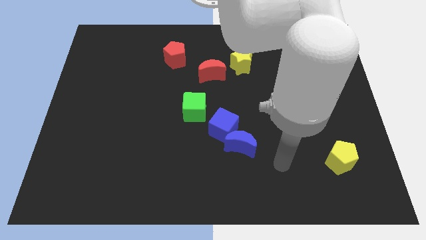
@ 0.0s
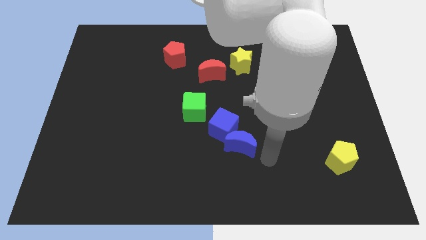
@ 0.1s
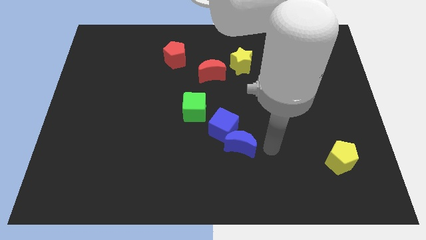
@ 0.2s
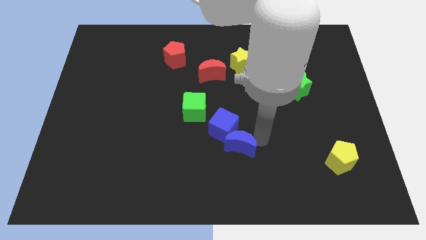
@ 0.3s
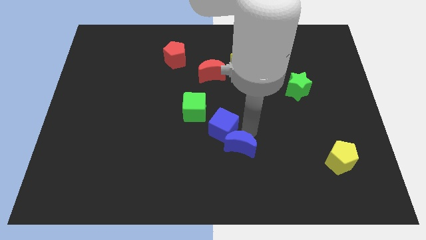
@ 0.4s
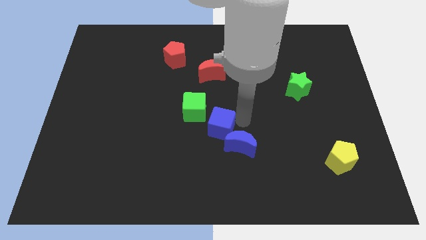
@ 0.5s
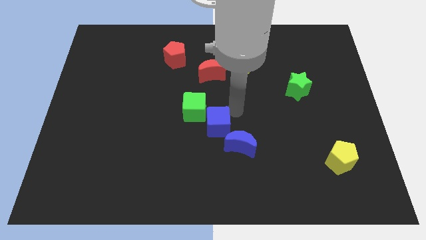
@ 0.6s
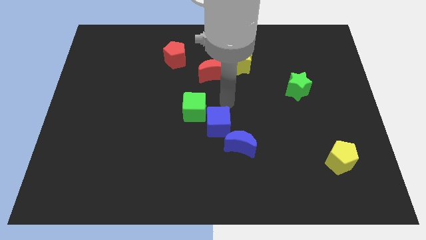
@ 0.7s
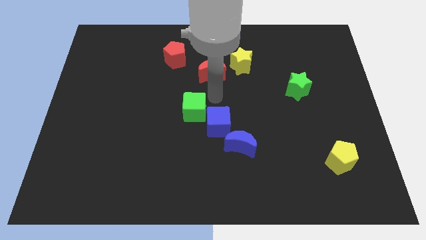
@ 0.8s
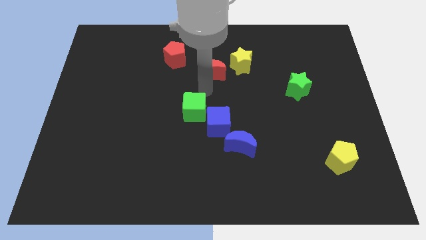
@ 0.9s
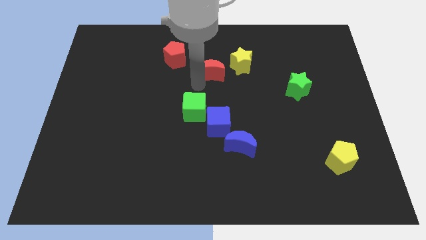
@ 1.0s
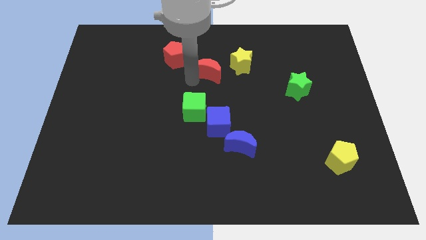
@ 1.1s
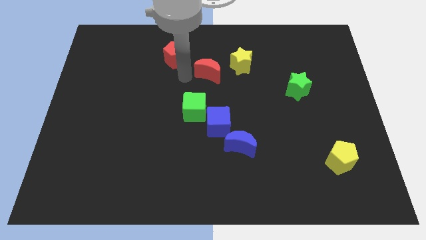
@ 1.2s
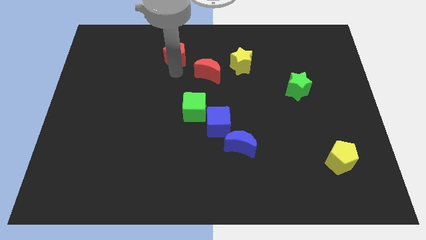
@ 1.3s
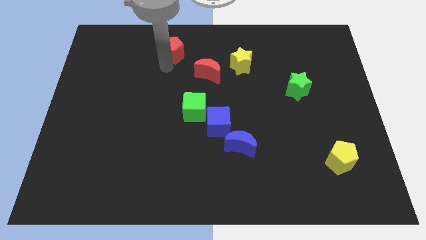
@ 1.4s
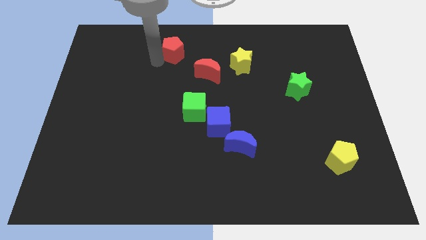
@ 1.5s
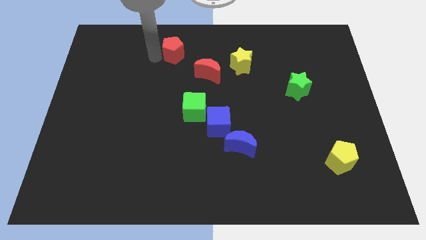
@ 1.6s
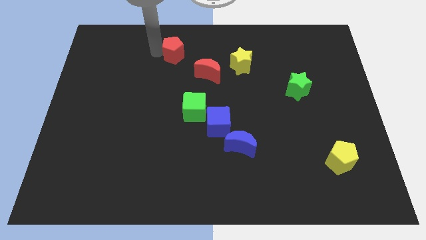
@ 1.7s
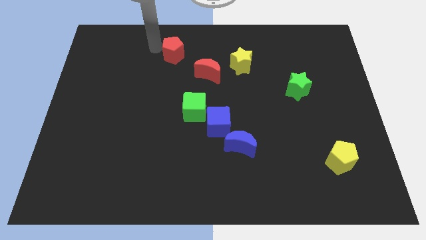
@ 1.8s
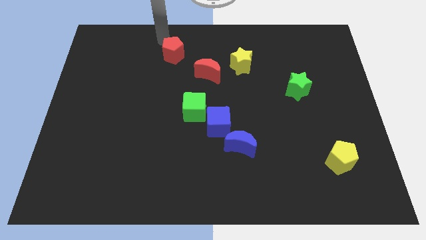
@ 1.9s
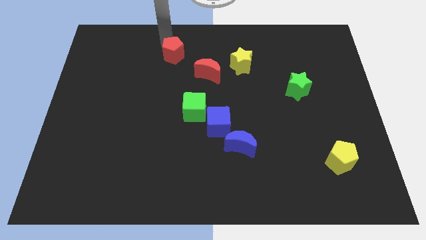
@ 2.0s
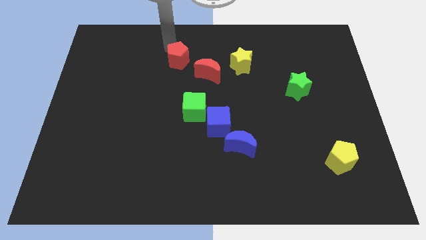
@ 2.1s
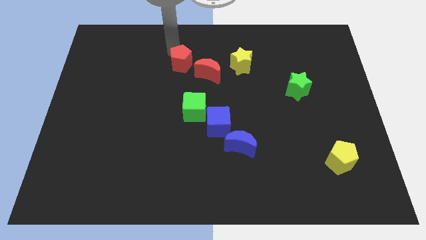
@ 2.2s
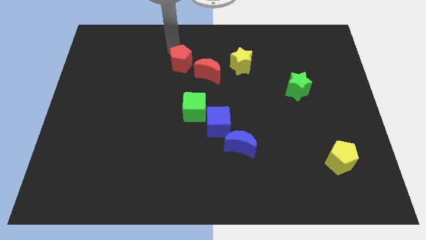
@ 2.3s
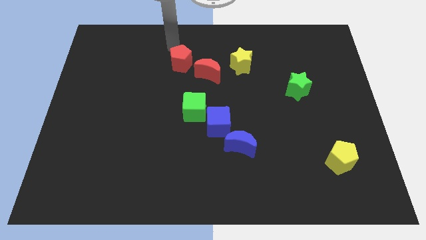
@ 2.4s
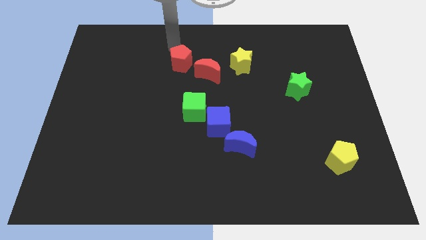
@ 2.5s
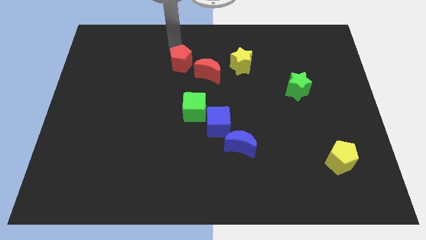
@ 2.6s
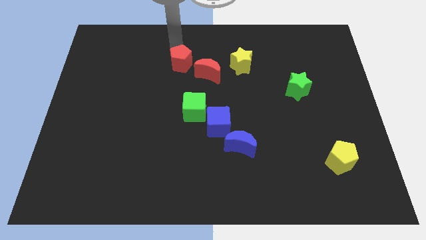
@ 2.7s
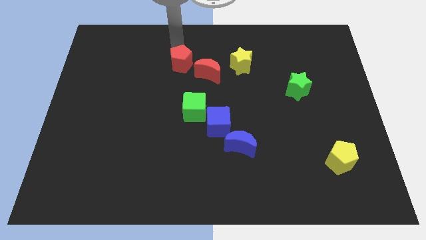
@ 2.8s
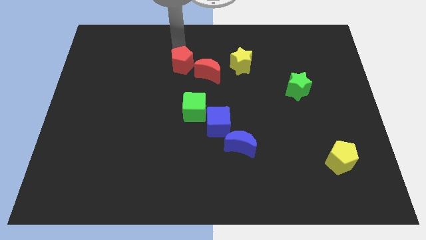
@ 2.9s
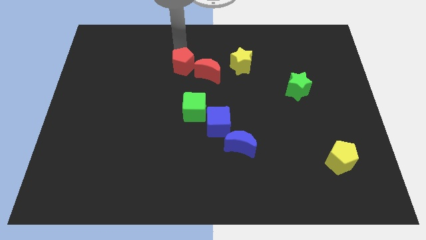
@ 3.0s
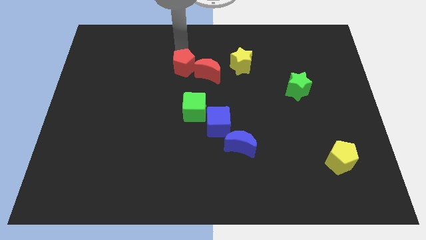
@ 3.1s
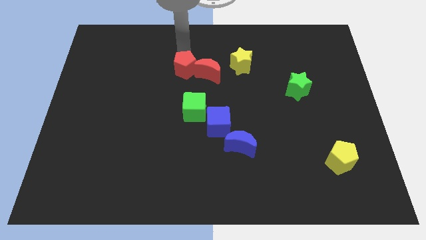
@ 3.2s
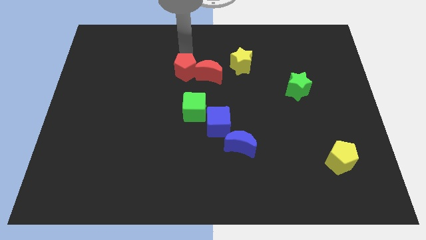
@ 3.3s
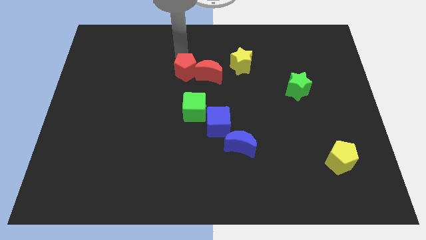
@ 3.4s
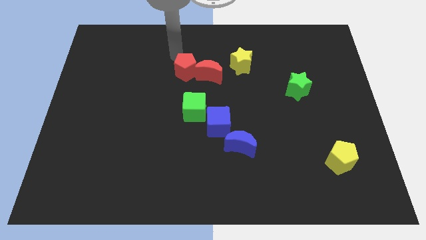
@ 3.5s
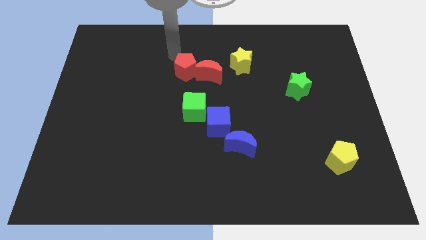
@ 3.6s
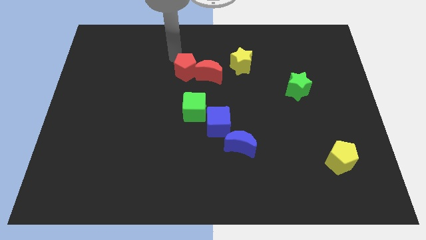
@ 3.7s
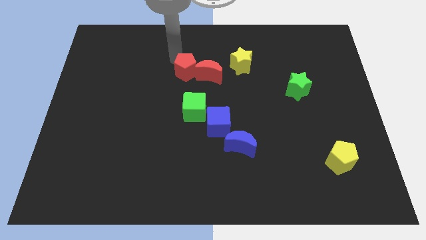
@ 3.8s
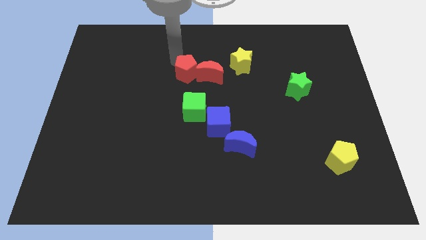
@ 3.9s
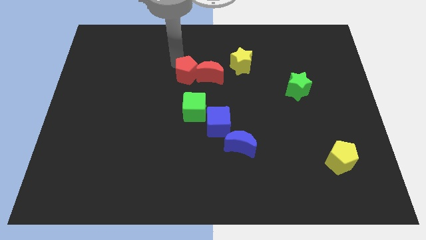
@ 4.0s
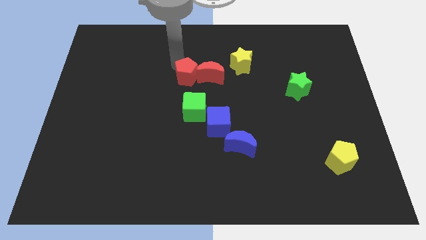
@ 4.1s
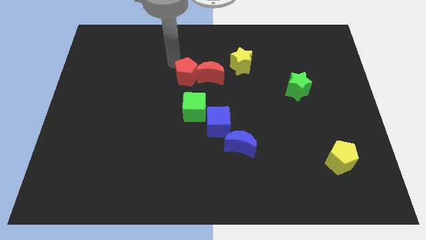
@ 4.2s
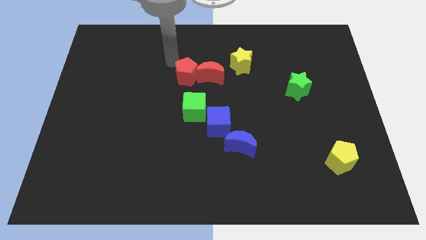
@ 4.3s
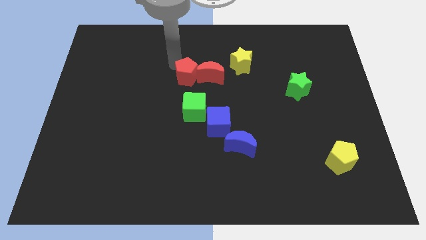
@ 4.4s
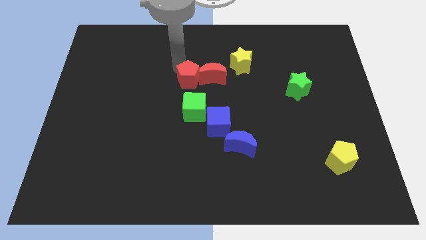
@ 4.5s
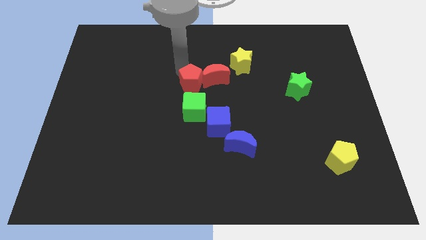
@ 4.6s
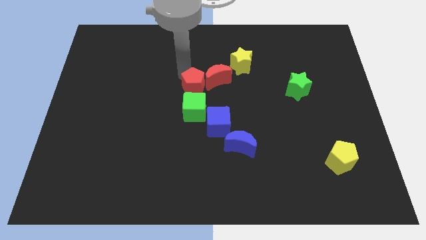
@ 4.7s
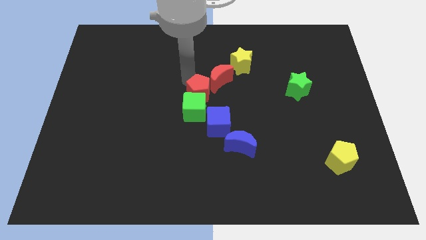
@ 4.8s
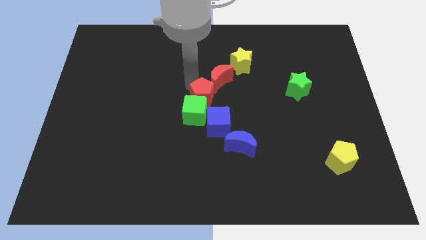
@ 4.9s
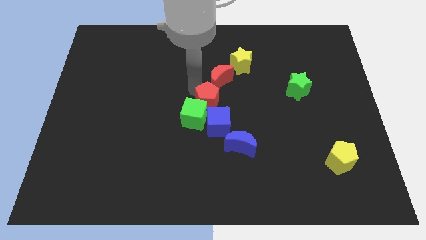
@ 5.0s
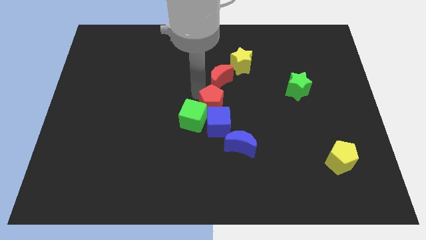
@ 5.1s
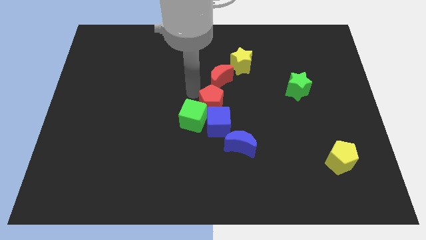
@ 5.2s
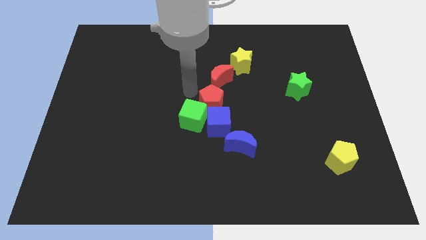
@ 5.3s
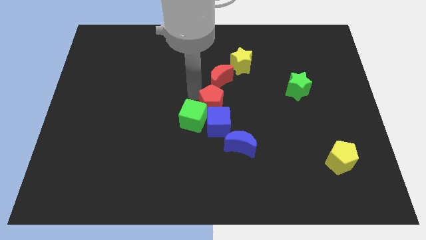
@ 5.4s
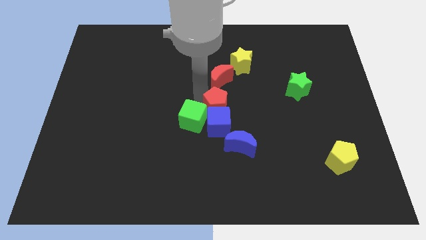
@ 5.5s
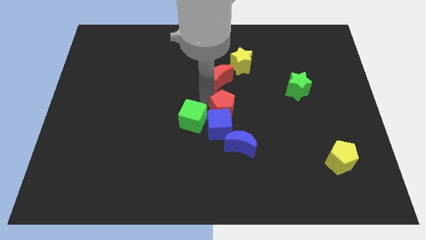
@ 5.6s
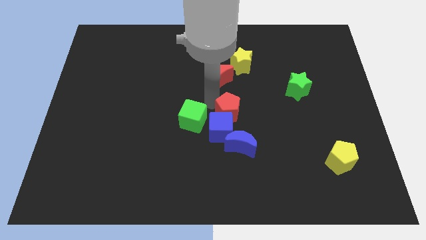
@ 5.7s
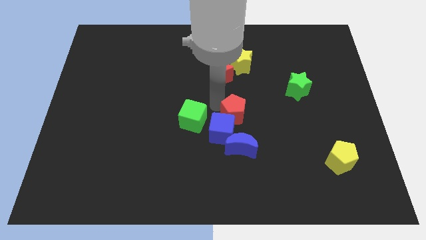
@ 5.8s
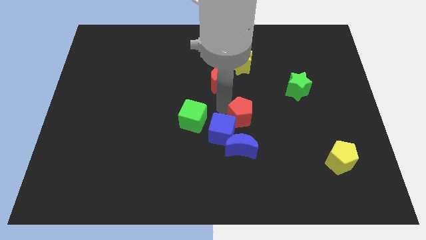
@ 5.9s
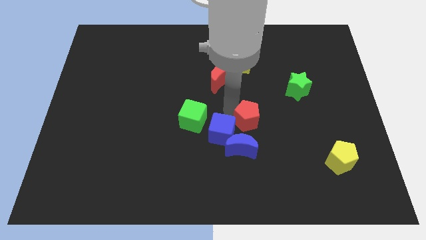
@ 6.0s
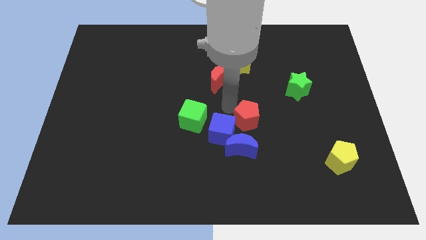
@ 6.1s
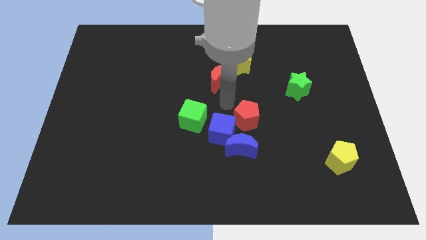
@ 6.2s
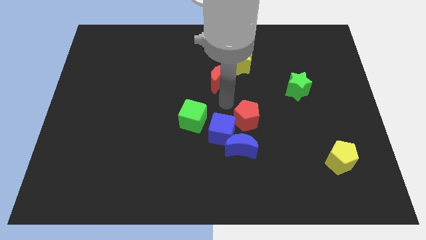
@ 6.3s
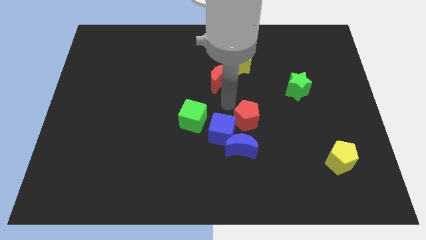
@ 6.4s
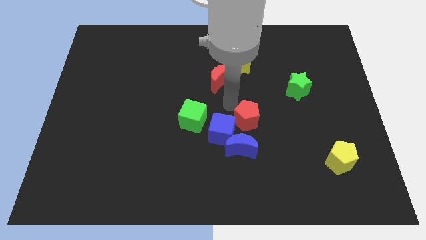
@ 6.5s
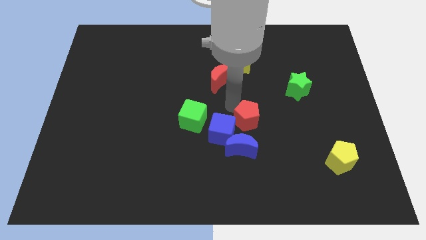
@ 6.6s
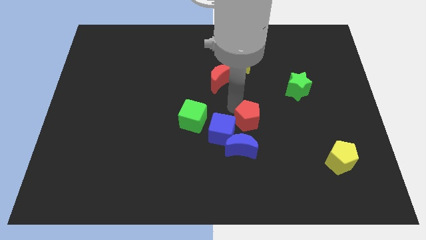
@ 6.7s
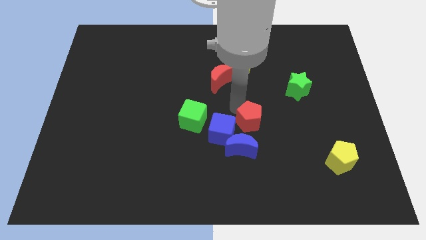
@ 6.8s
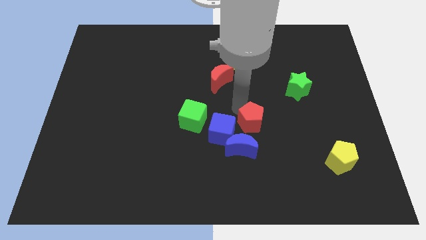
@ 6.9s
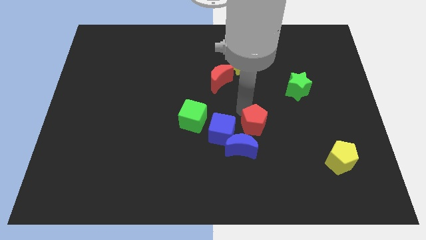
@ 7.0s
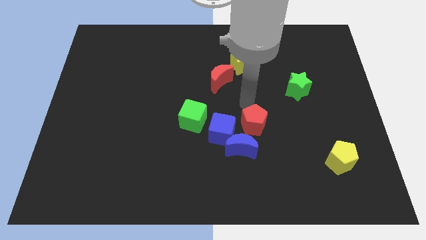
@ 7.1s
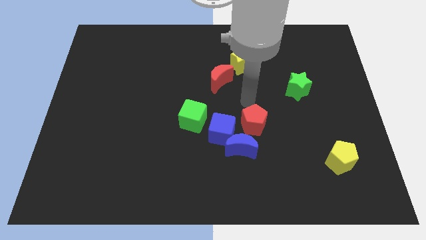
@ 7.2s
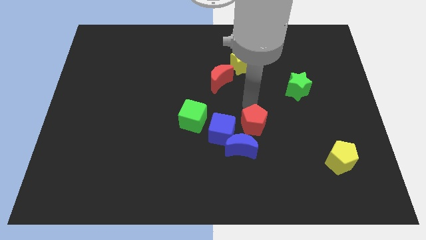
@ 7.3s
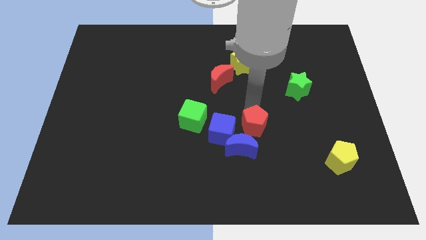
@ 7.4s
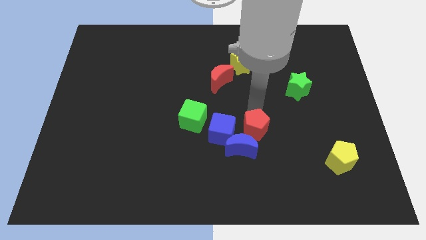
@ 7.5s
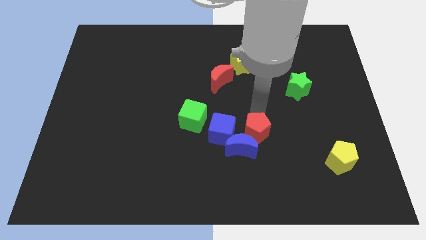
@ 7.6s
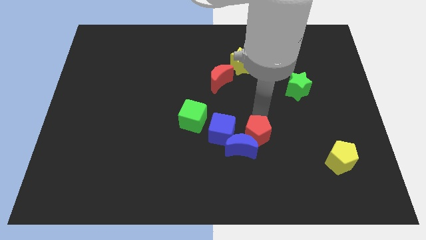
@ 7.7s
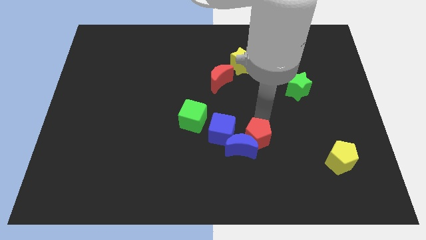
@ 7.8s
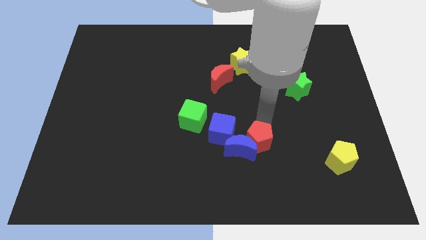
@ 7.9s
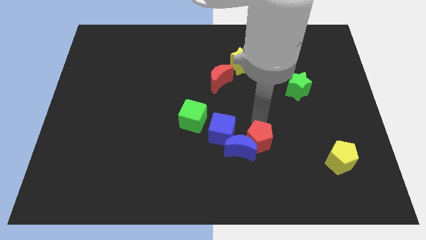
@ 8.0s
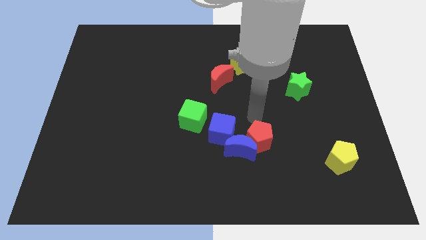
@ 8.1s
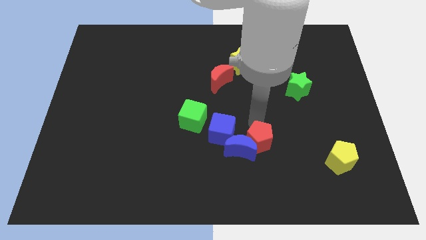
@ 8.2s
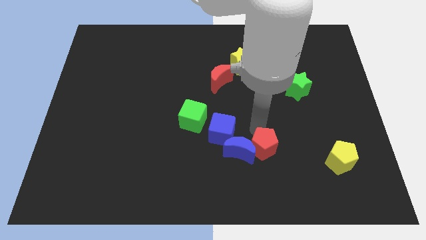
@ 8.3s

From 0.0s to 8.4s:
push the red pentagon to the bottom right side of the blue moon
